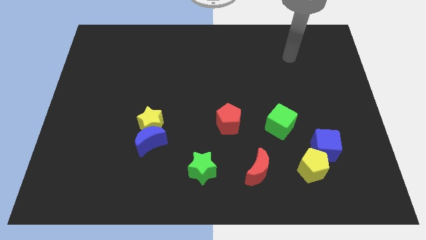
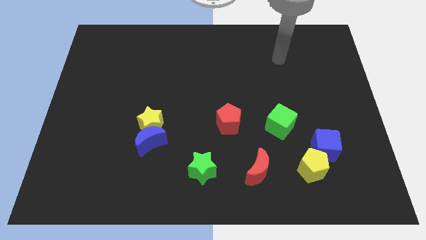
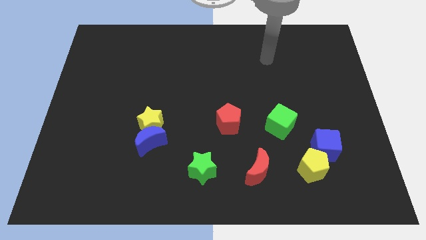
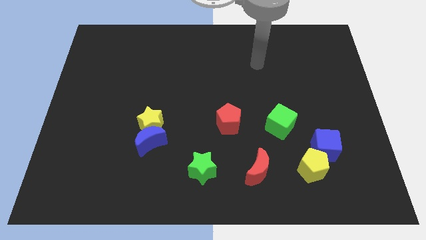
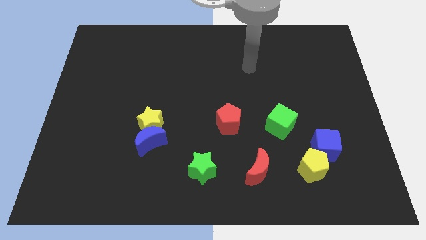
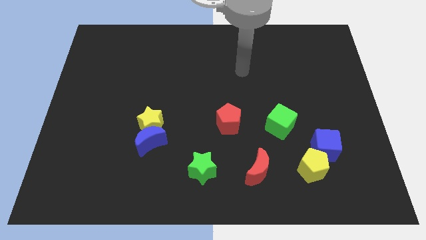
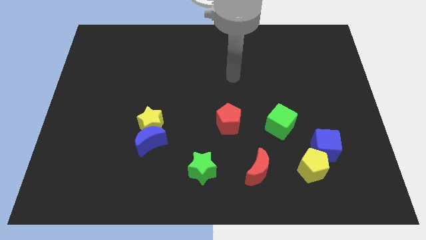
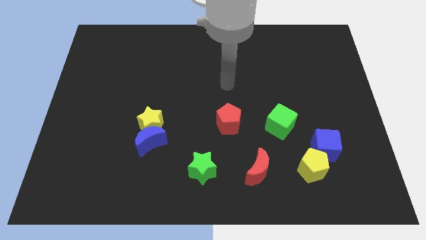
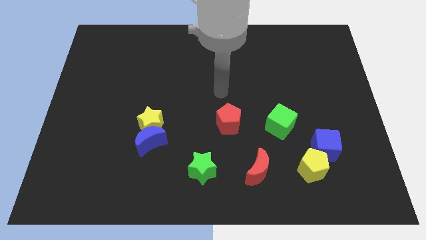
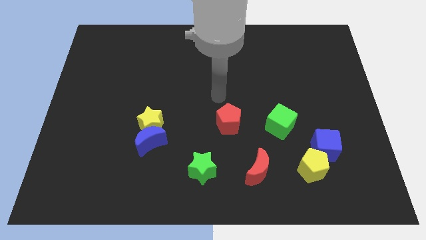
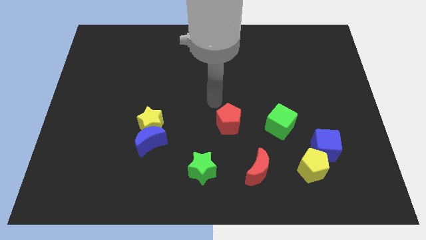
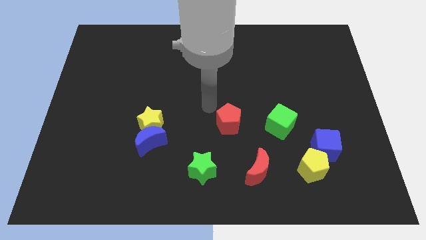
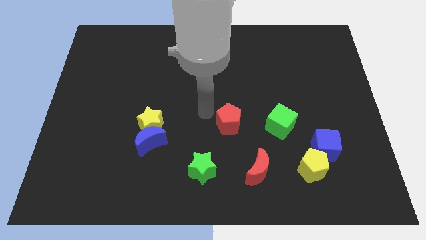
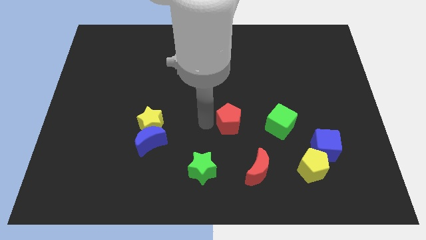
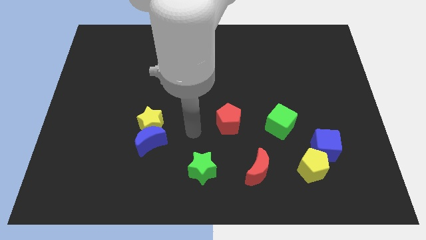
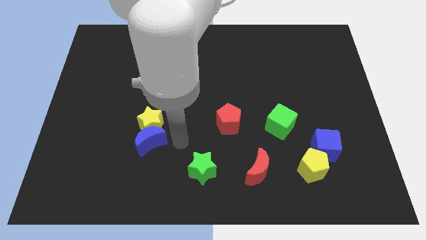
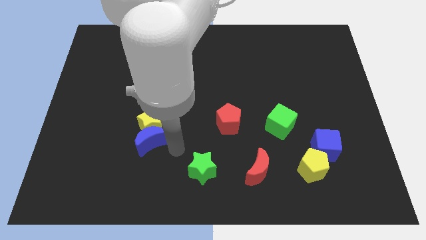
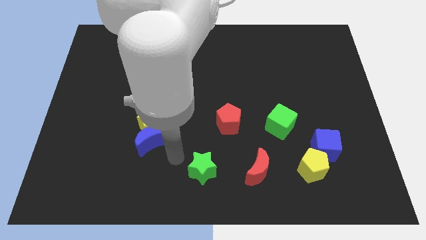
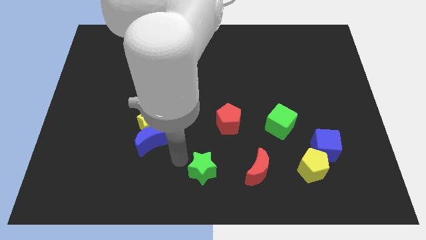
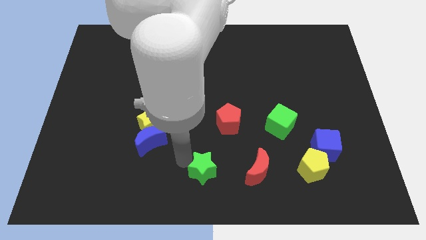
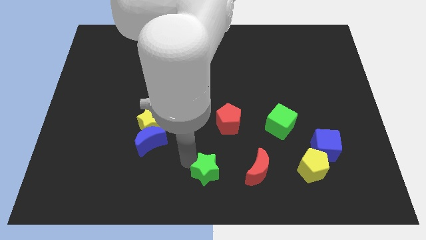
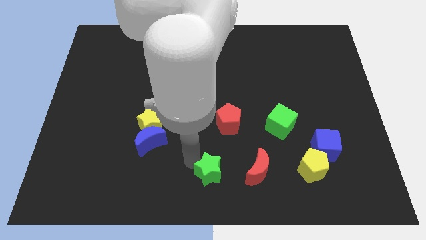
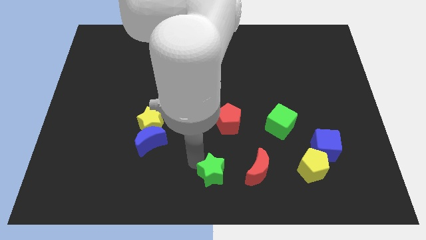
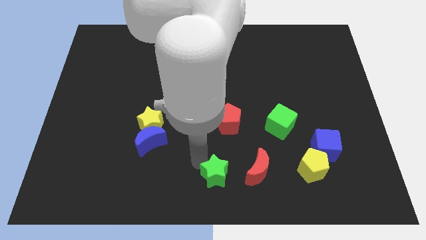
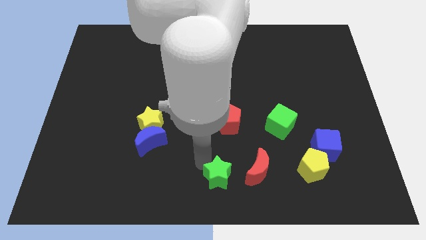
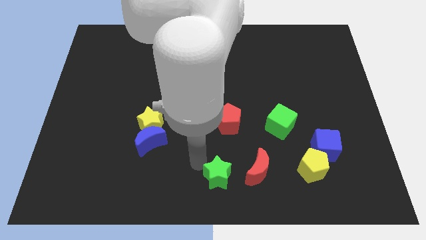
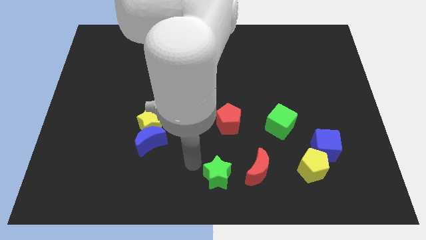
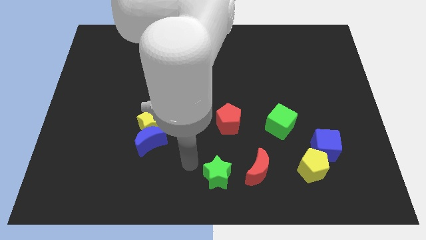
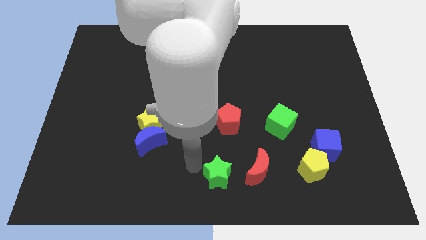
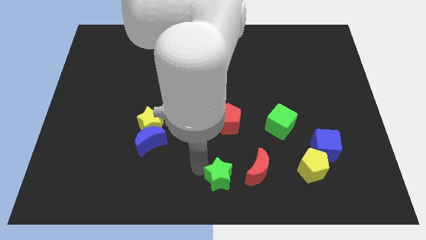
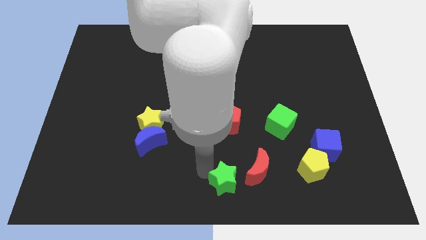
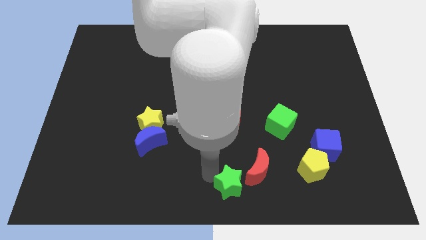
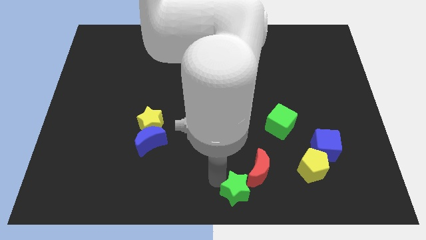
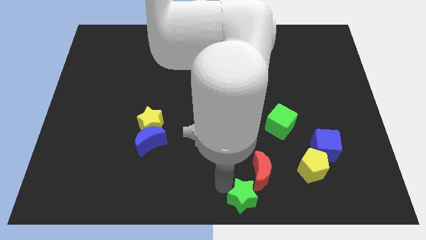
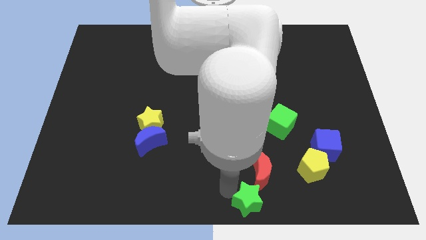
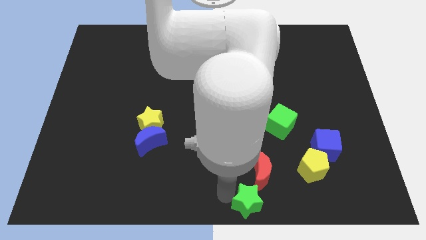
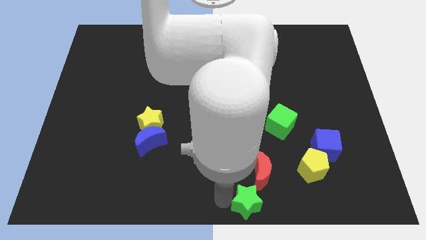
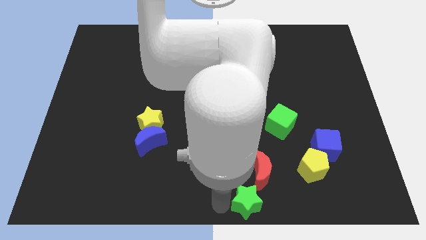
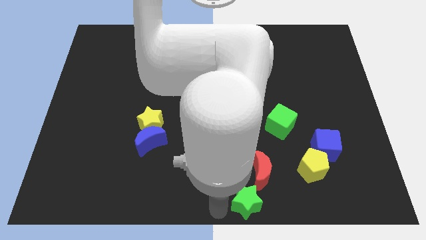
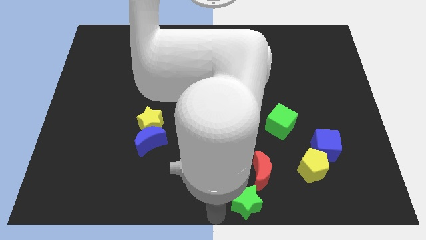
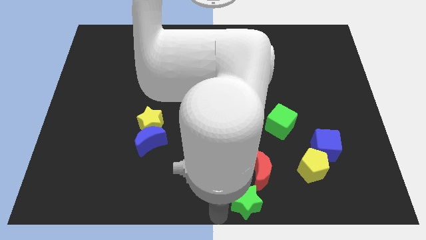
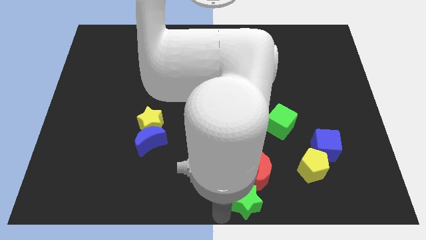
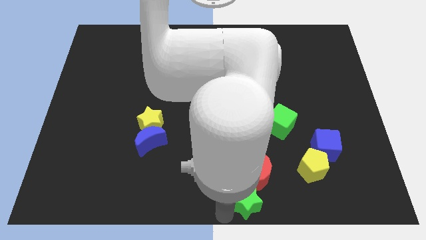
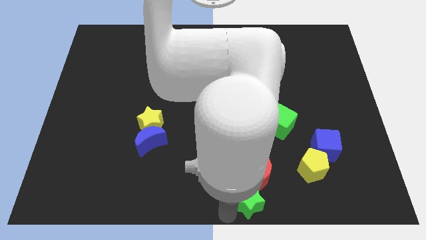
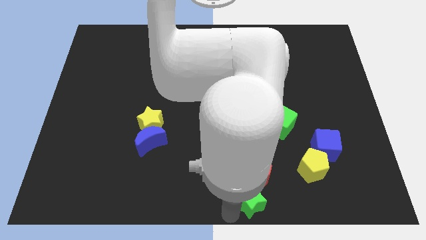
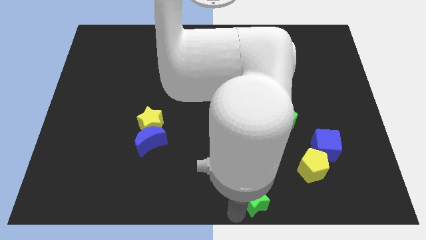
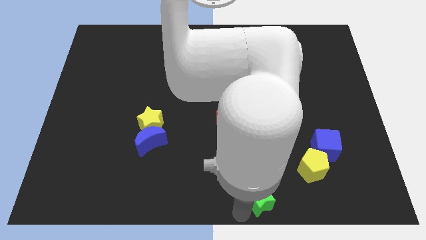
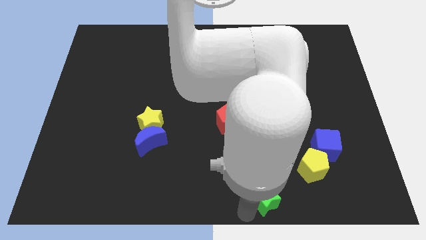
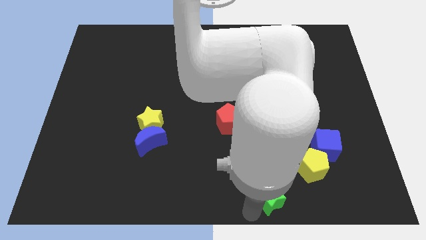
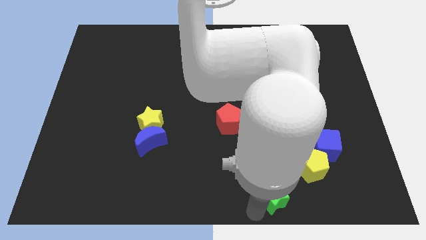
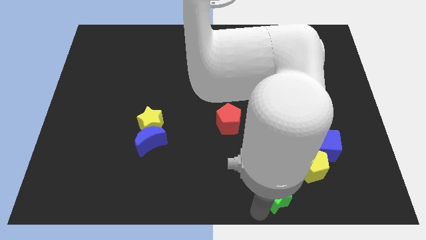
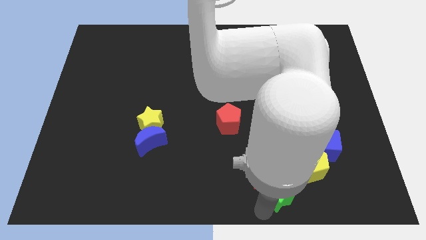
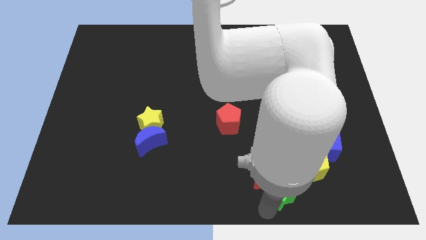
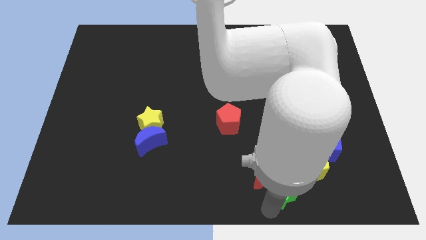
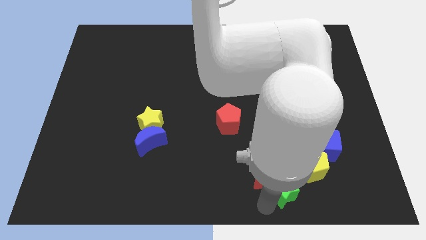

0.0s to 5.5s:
slide the green star just right of the red moon

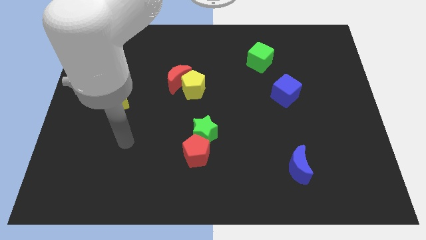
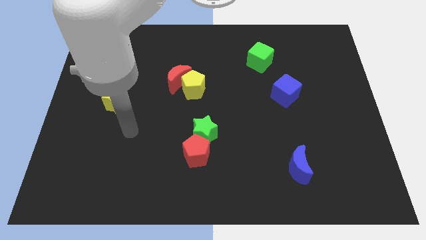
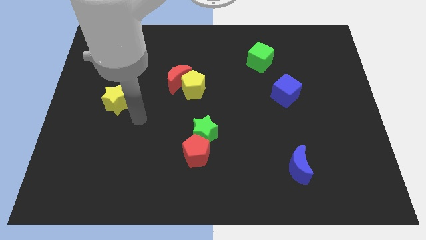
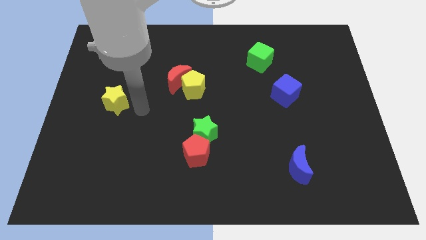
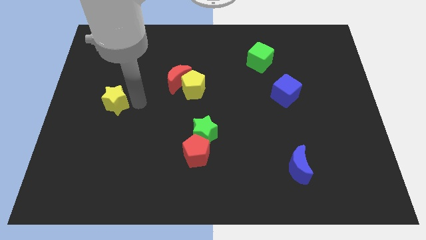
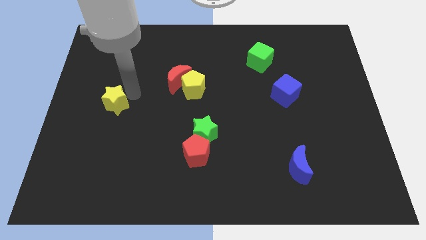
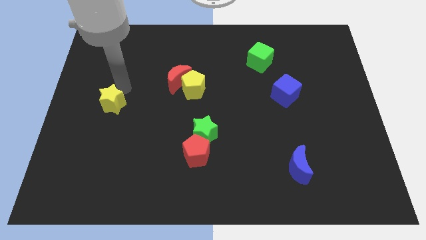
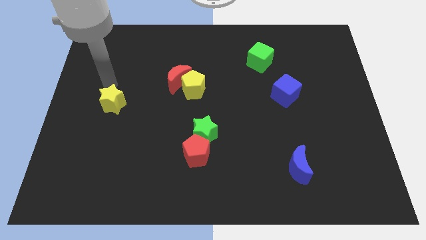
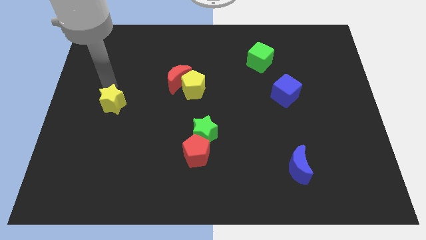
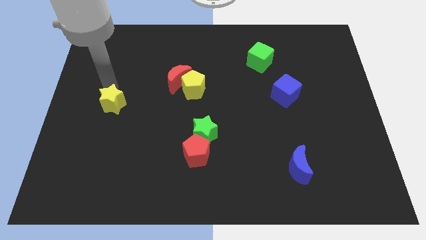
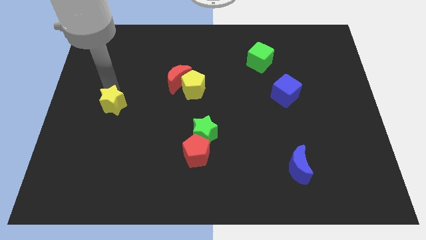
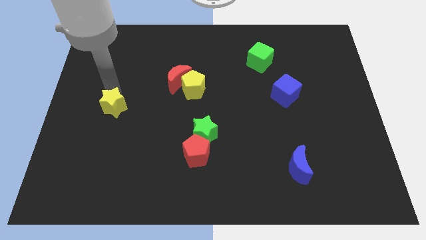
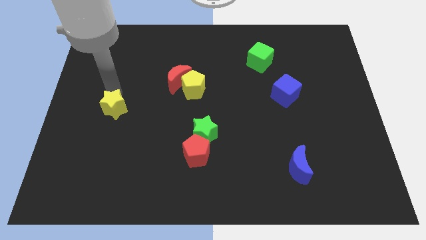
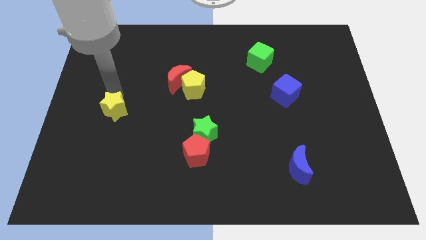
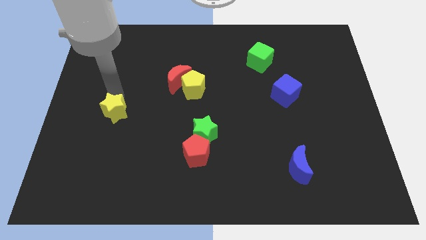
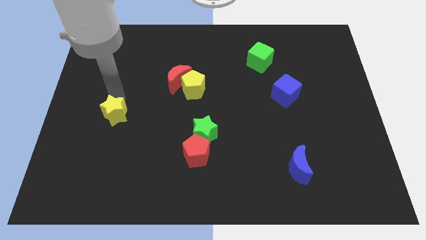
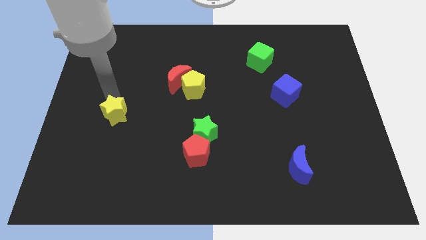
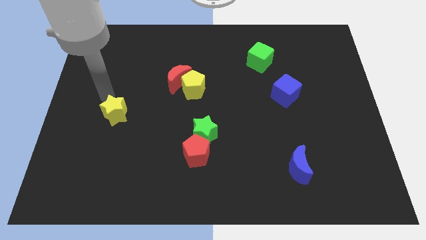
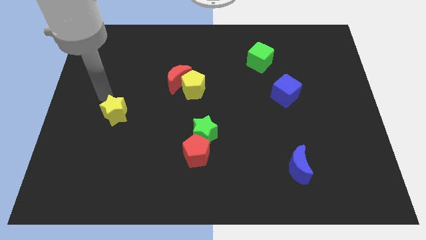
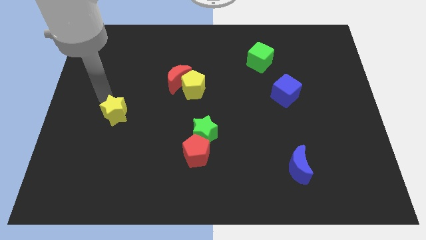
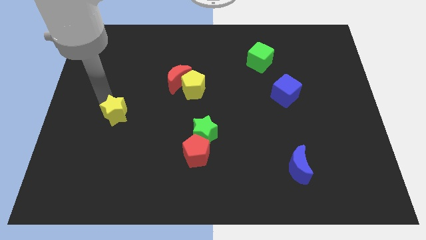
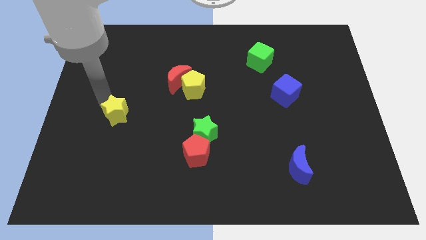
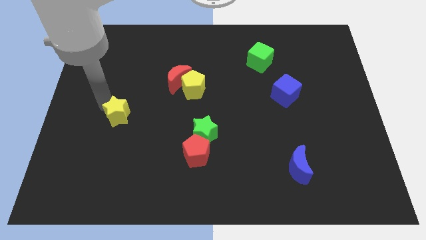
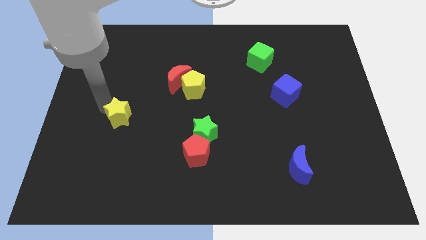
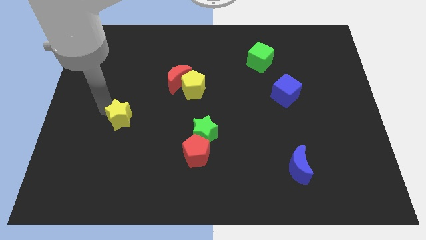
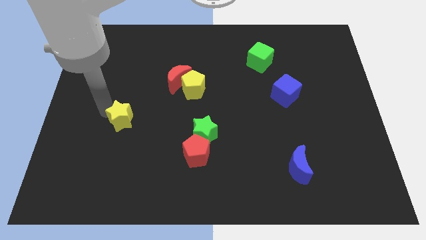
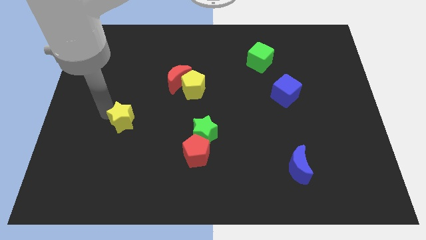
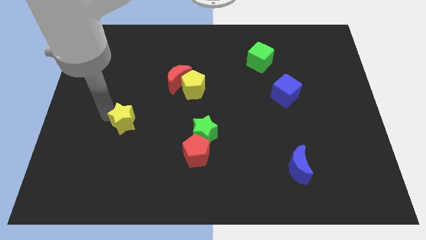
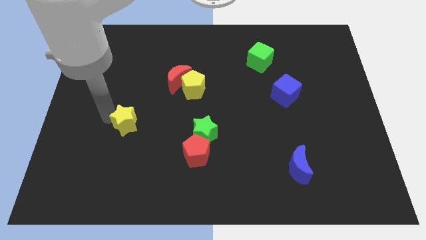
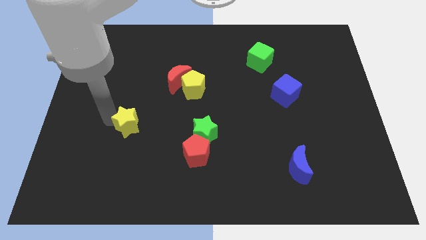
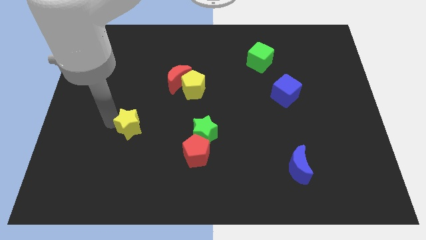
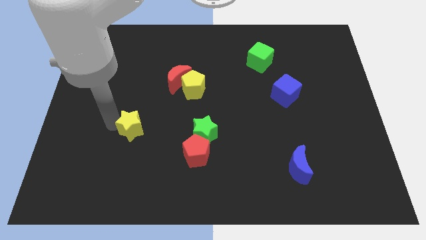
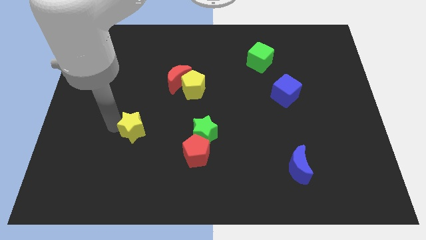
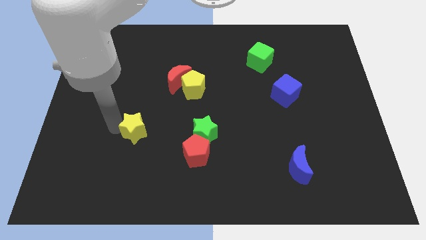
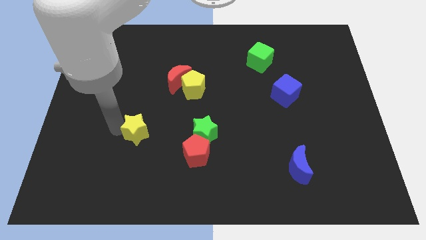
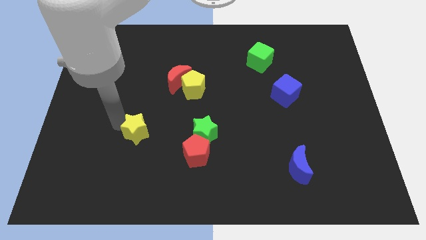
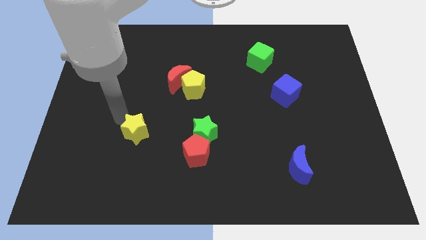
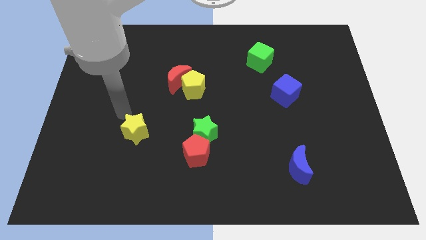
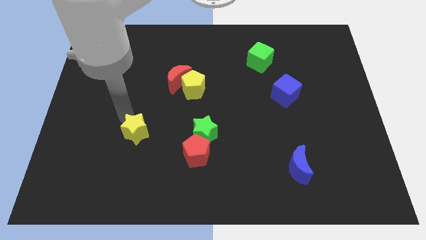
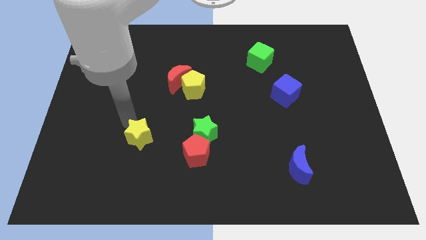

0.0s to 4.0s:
put the yellow star just left of the red pentagon
